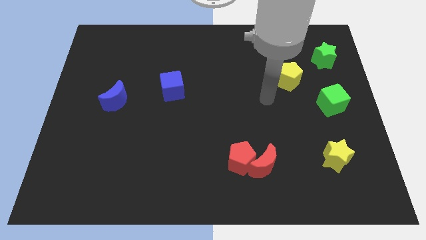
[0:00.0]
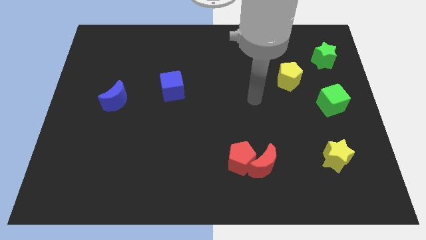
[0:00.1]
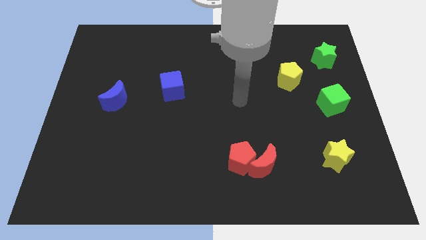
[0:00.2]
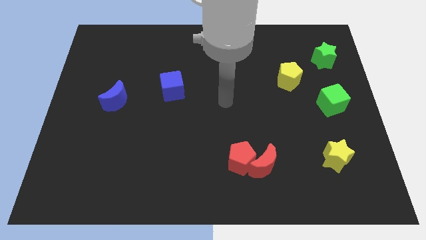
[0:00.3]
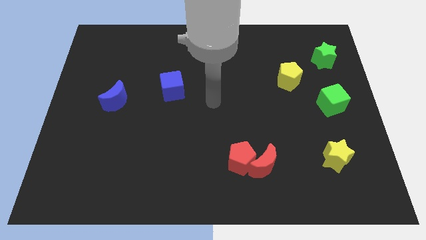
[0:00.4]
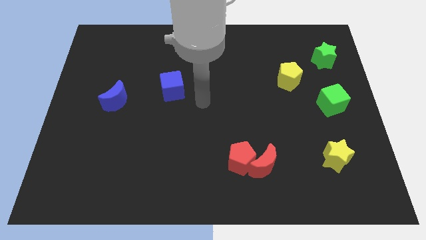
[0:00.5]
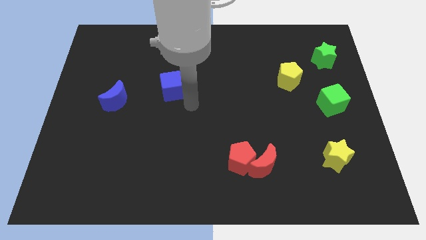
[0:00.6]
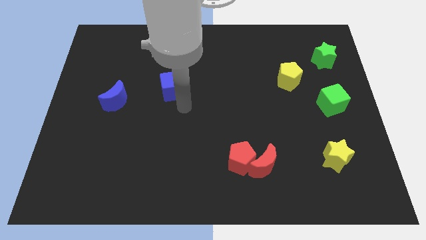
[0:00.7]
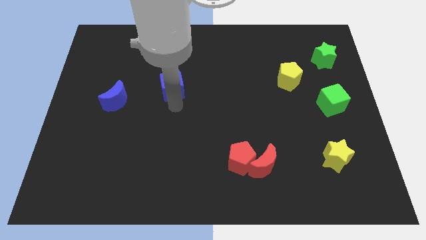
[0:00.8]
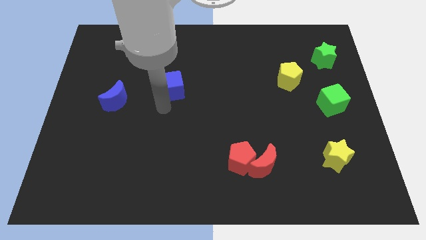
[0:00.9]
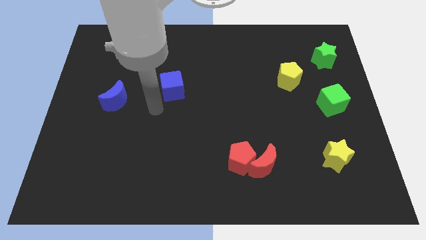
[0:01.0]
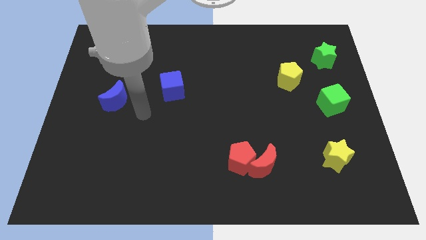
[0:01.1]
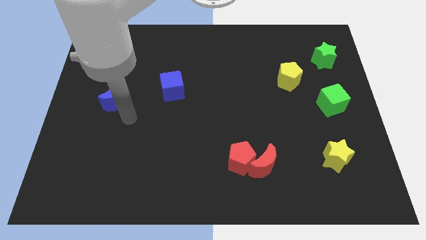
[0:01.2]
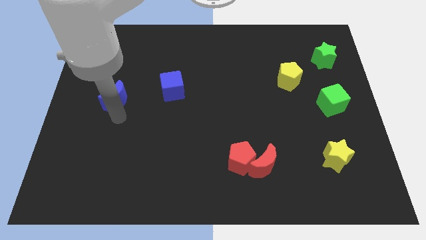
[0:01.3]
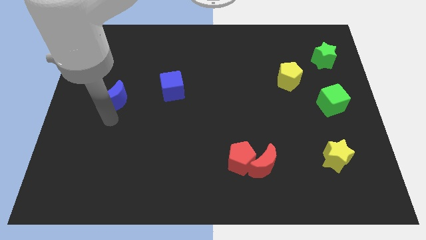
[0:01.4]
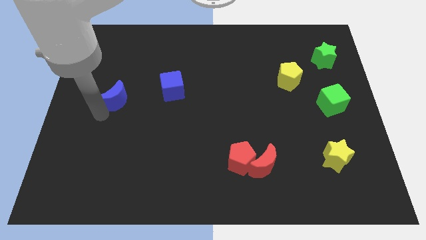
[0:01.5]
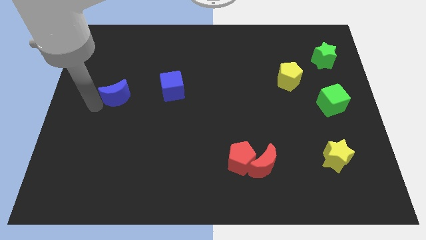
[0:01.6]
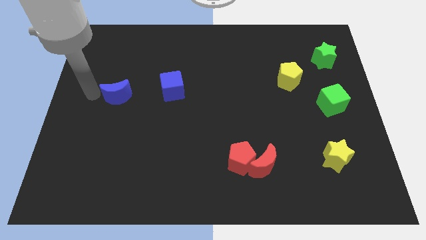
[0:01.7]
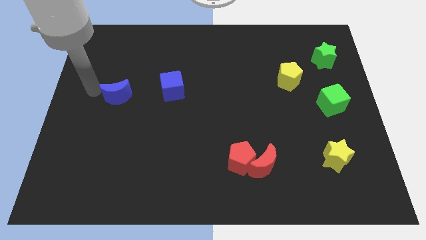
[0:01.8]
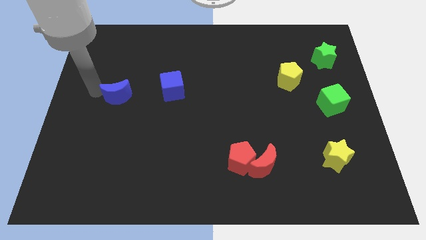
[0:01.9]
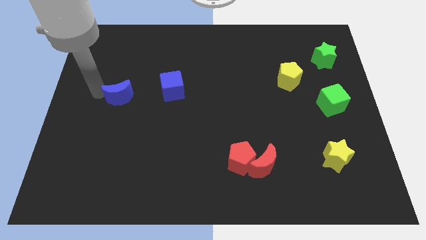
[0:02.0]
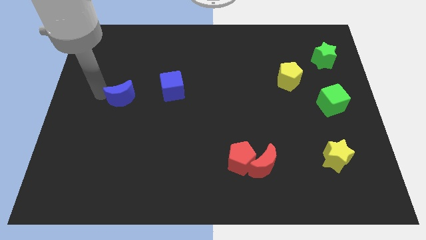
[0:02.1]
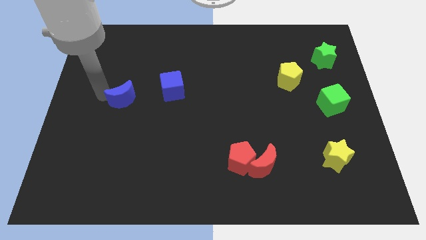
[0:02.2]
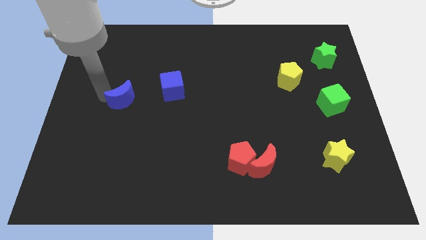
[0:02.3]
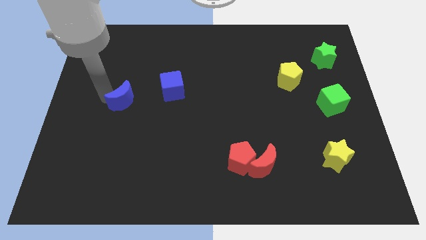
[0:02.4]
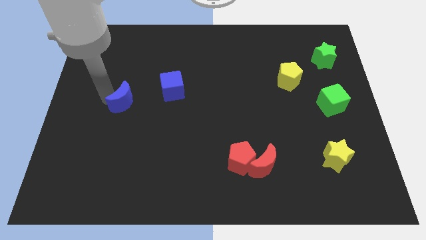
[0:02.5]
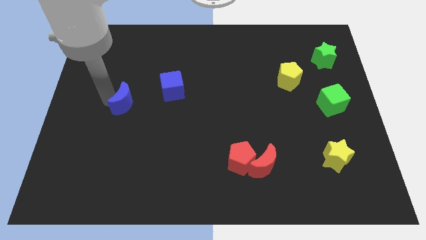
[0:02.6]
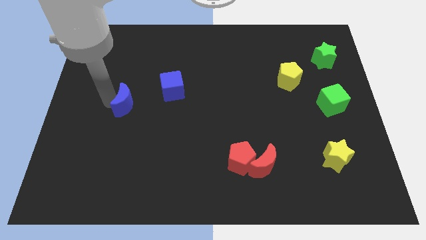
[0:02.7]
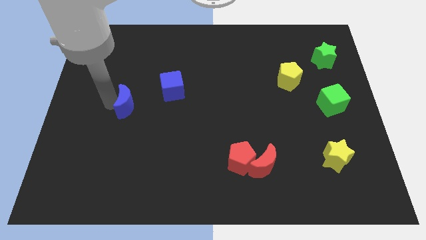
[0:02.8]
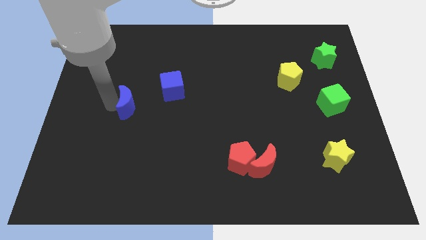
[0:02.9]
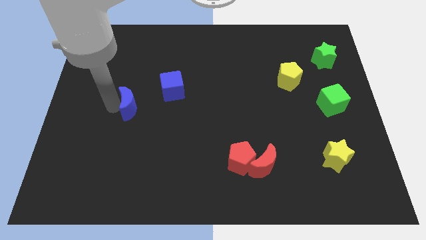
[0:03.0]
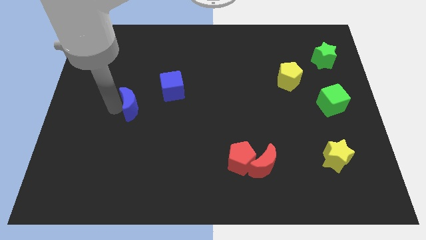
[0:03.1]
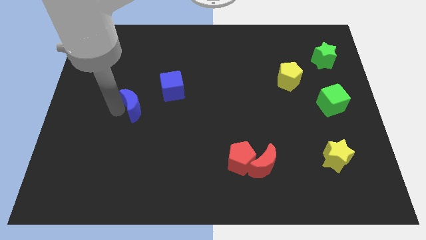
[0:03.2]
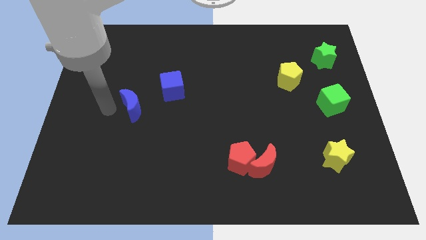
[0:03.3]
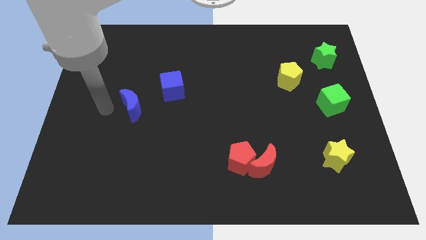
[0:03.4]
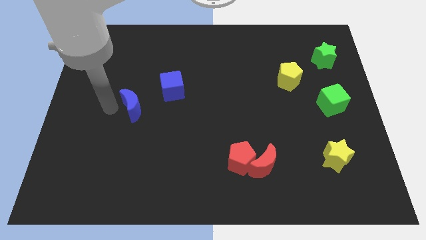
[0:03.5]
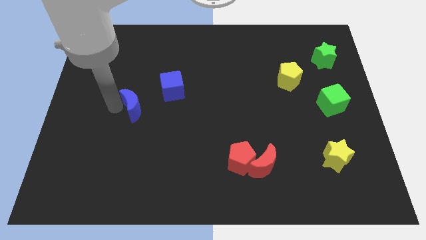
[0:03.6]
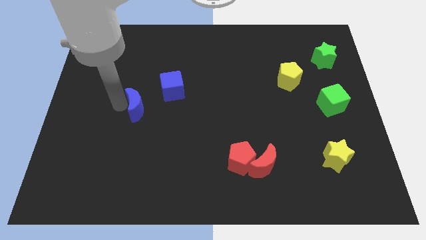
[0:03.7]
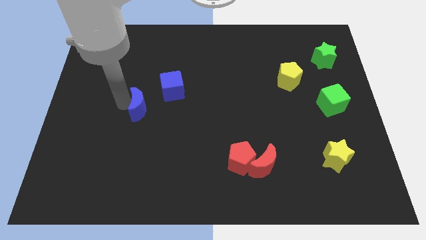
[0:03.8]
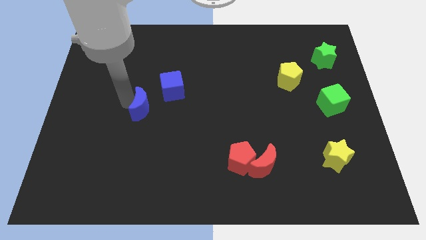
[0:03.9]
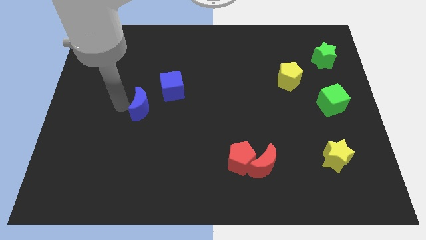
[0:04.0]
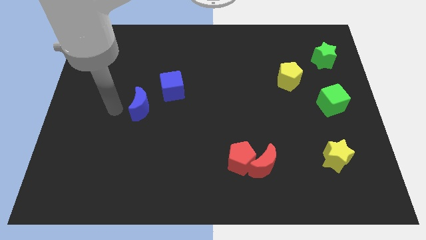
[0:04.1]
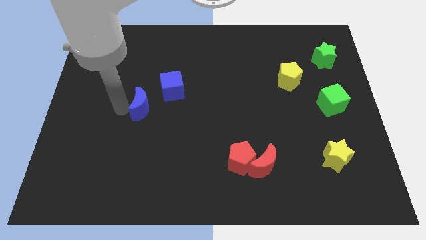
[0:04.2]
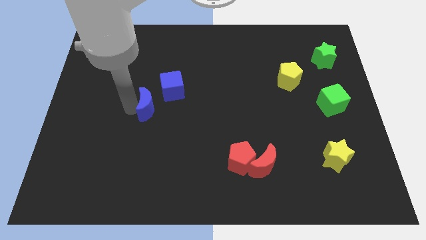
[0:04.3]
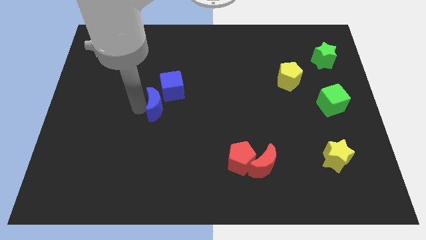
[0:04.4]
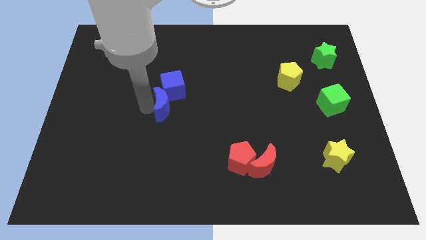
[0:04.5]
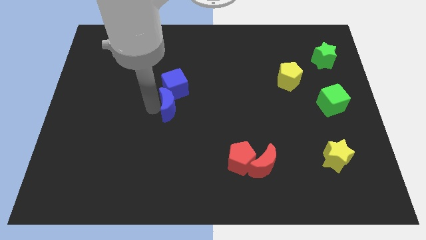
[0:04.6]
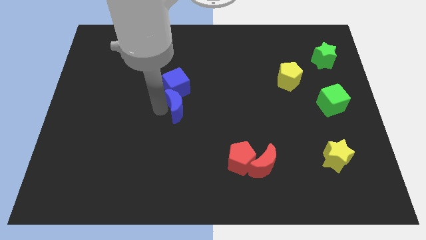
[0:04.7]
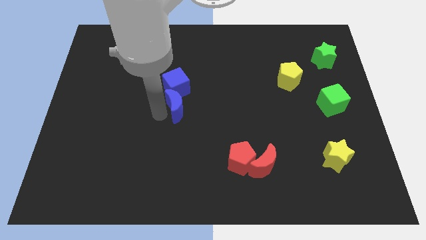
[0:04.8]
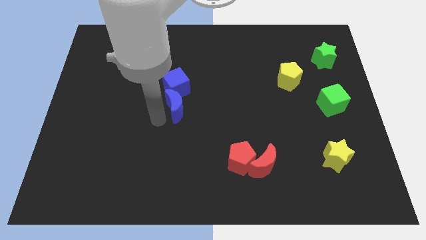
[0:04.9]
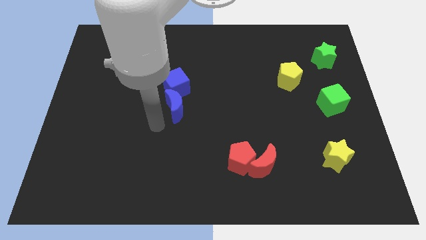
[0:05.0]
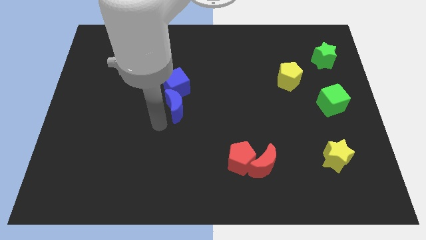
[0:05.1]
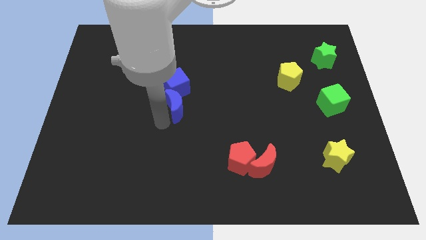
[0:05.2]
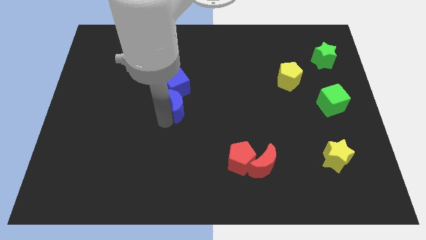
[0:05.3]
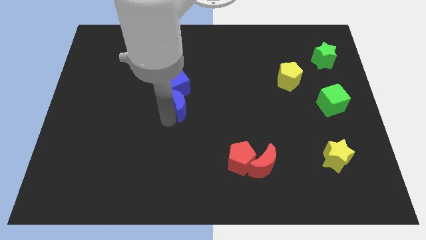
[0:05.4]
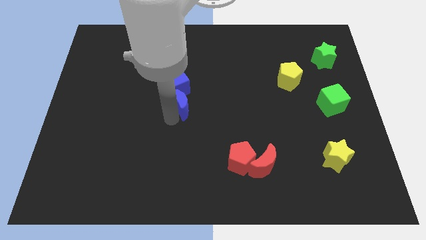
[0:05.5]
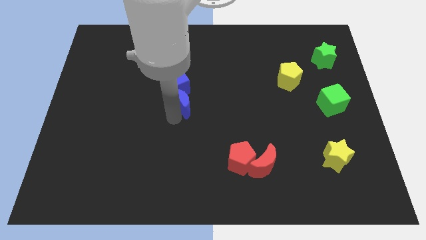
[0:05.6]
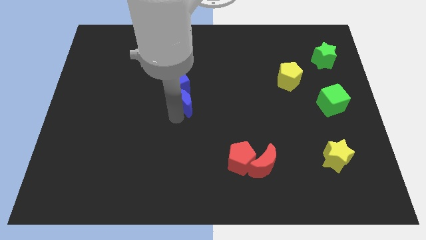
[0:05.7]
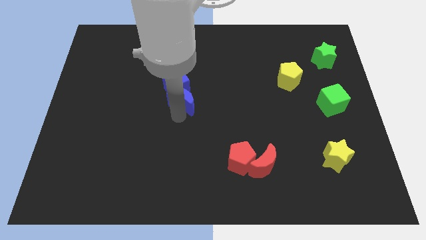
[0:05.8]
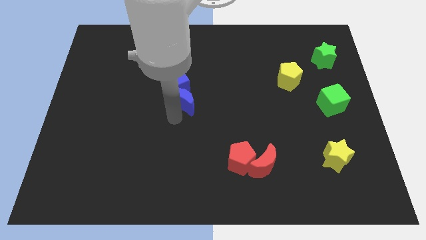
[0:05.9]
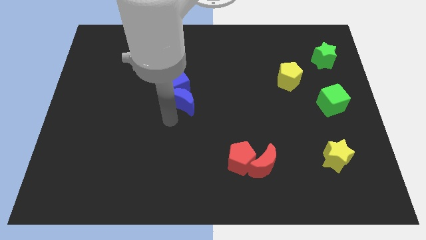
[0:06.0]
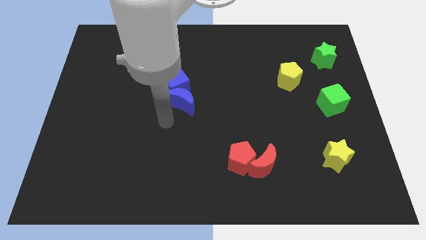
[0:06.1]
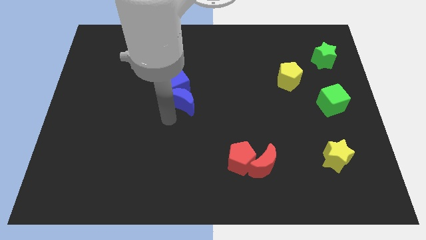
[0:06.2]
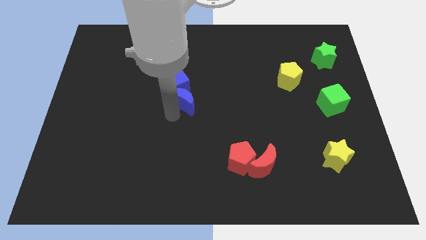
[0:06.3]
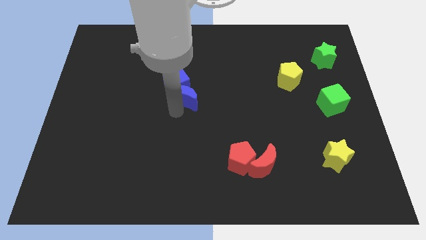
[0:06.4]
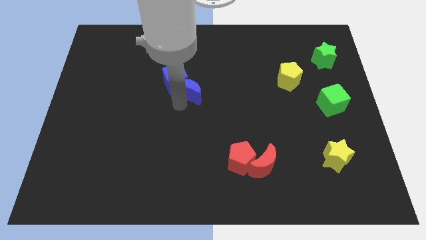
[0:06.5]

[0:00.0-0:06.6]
put the blue moon right of the blue cube

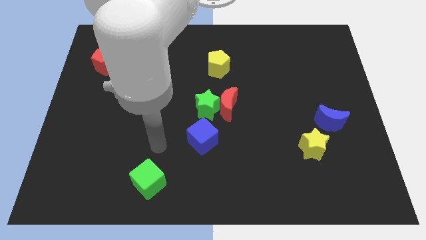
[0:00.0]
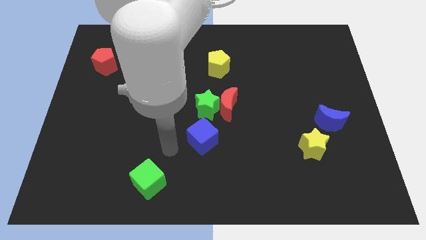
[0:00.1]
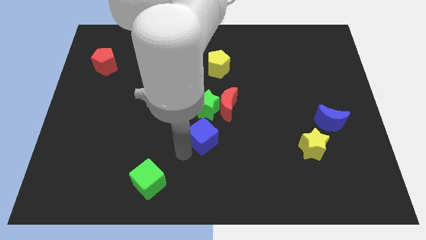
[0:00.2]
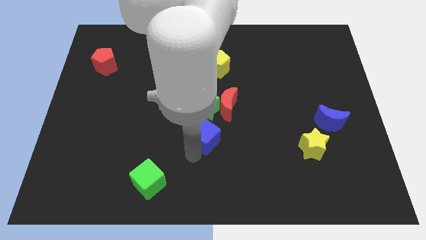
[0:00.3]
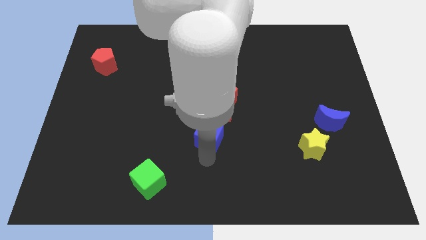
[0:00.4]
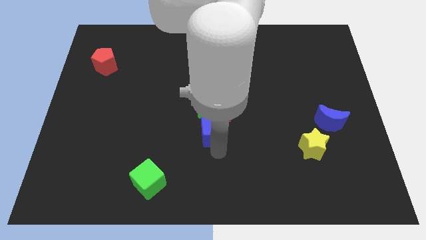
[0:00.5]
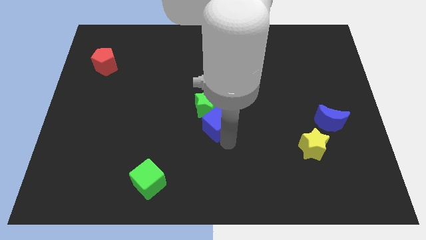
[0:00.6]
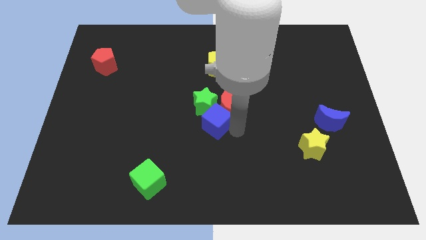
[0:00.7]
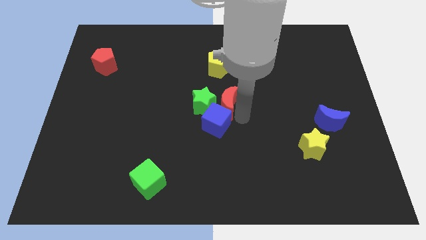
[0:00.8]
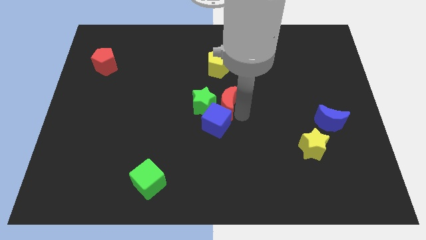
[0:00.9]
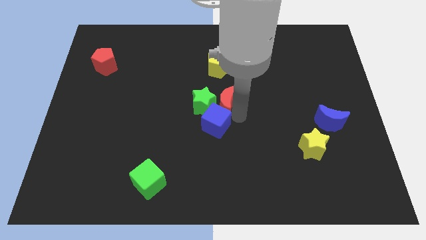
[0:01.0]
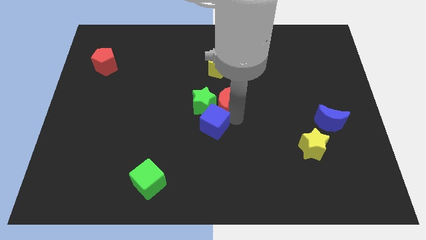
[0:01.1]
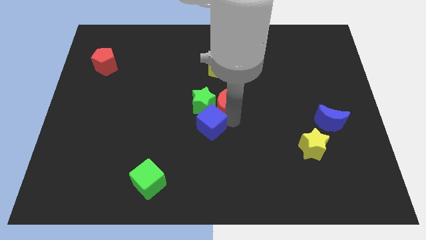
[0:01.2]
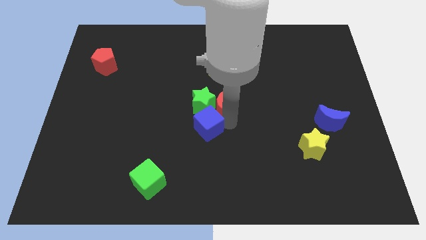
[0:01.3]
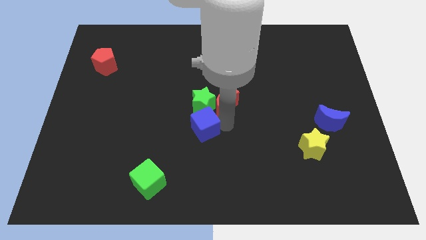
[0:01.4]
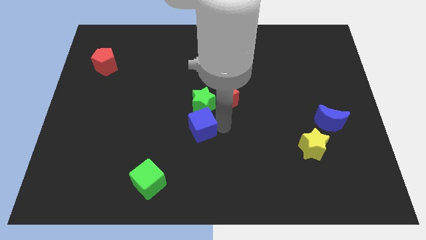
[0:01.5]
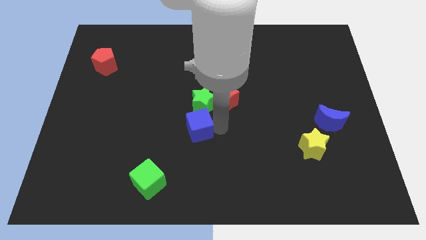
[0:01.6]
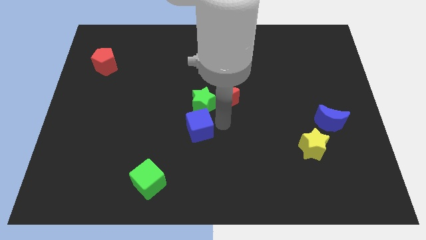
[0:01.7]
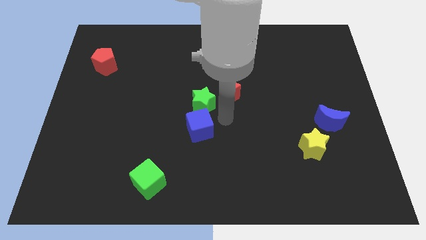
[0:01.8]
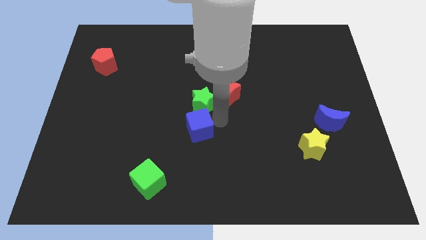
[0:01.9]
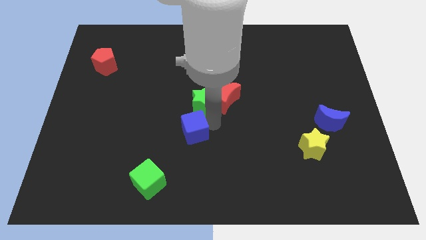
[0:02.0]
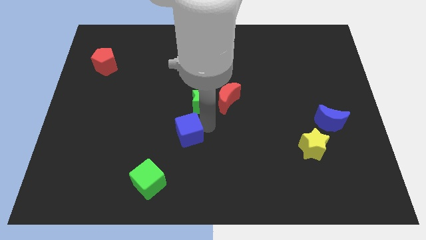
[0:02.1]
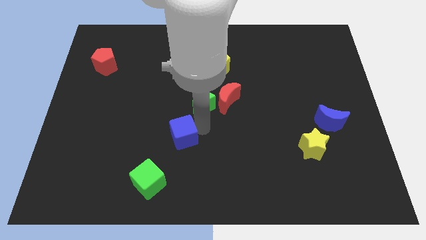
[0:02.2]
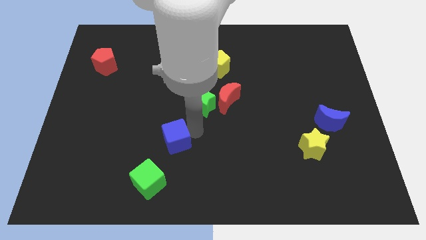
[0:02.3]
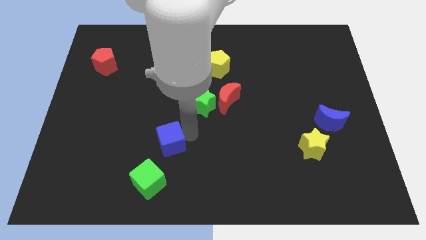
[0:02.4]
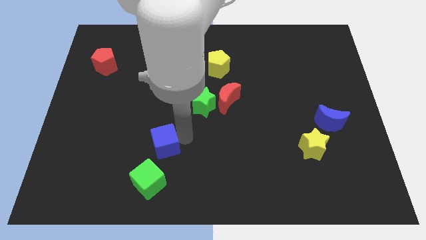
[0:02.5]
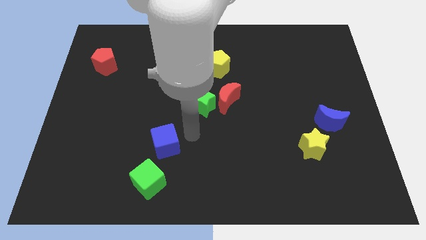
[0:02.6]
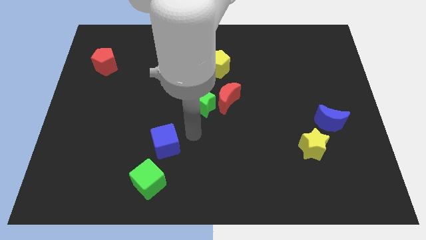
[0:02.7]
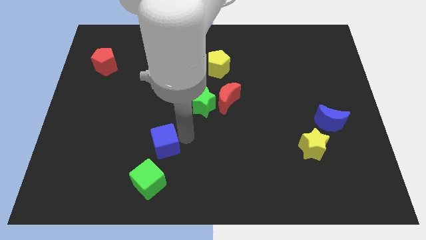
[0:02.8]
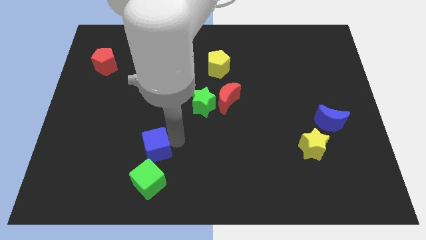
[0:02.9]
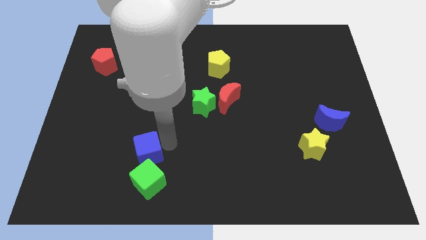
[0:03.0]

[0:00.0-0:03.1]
slide the blue cube diagonally up and to the left of the green cube
